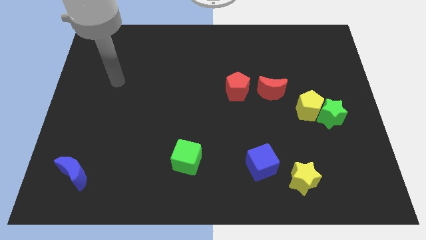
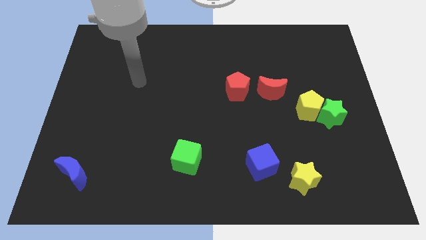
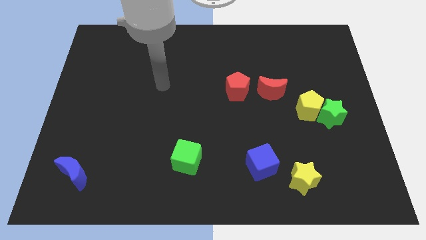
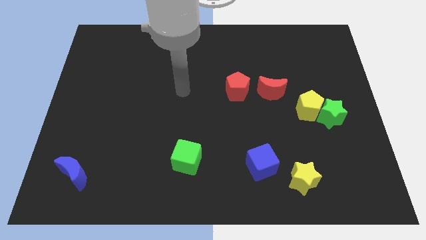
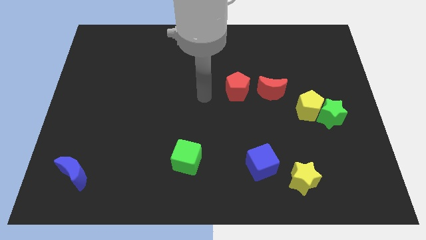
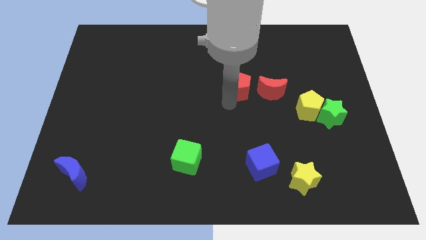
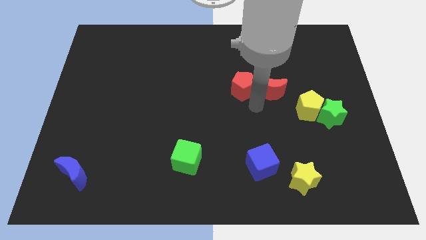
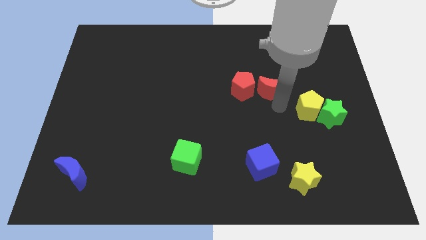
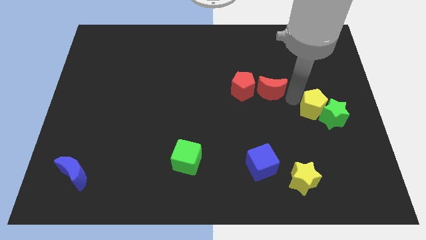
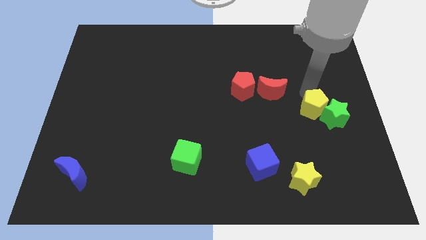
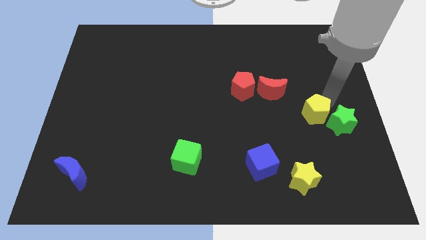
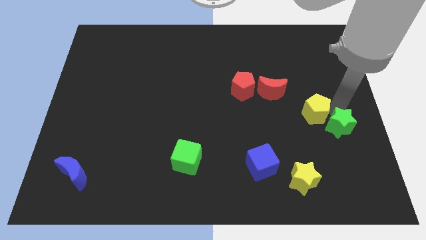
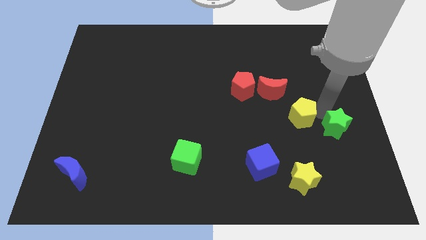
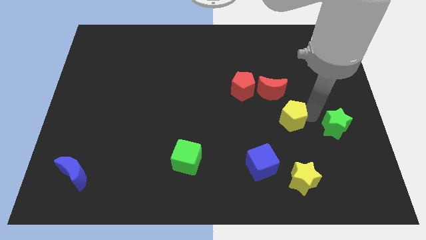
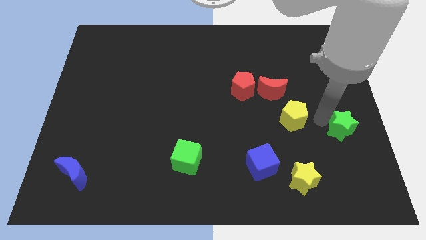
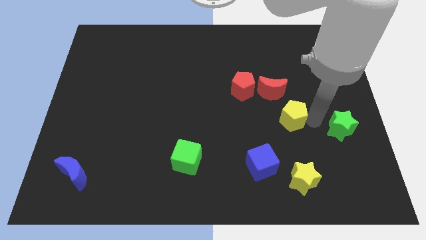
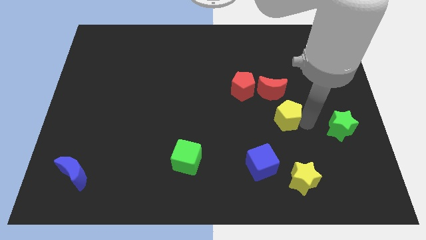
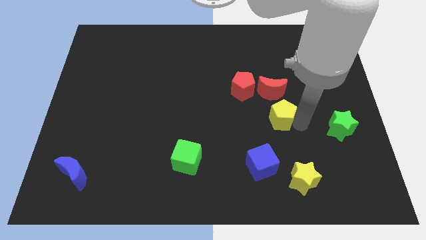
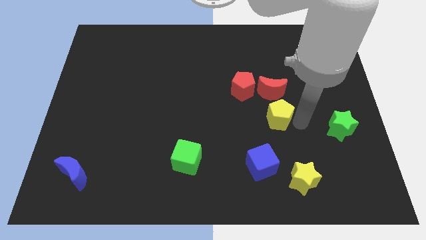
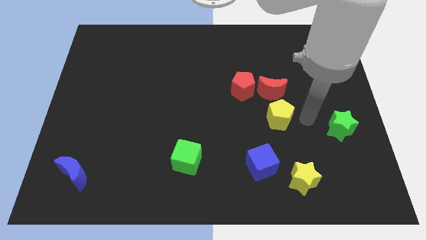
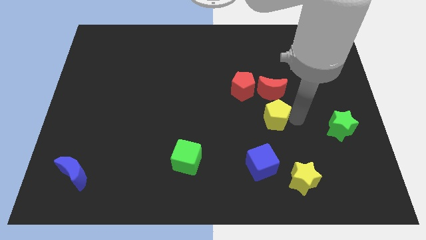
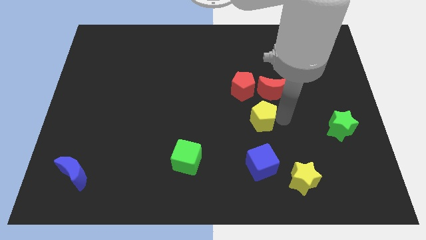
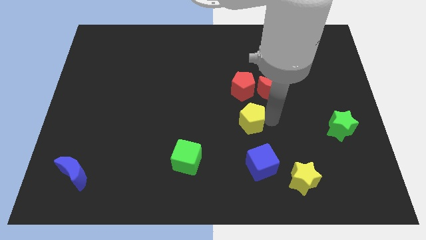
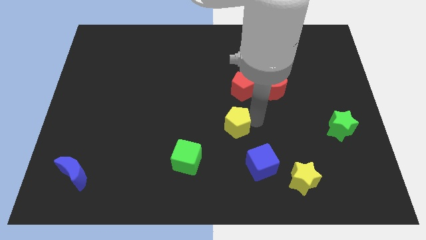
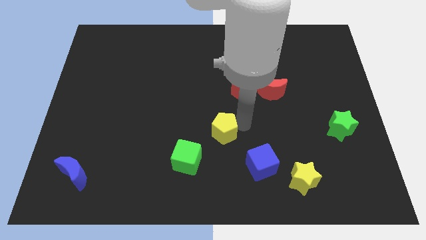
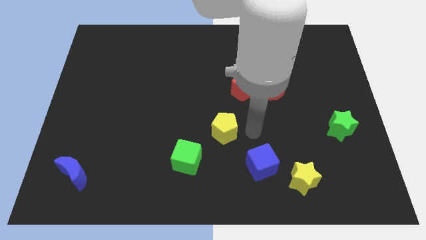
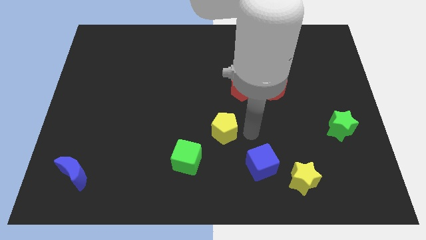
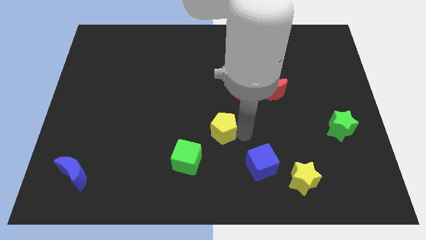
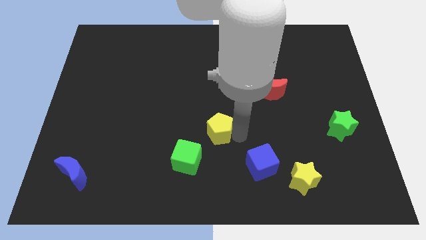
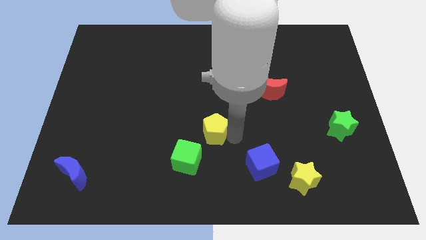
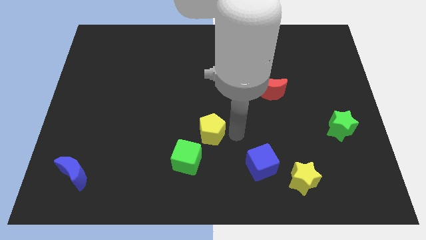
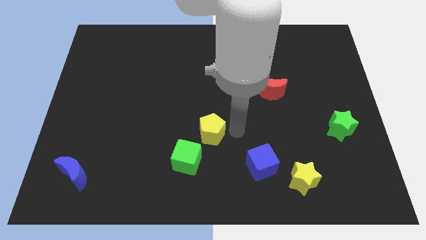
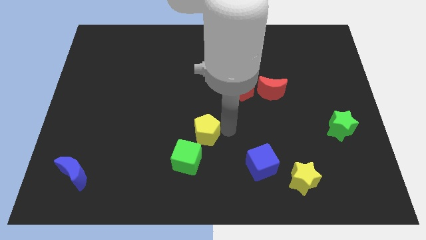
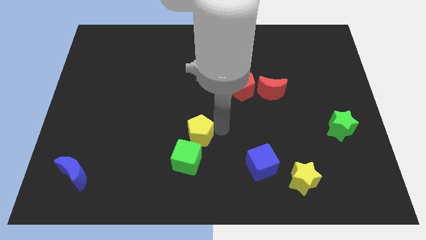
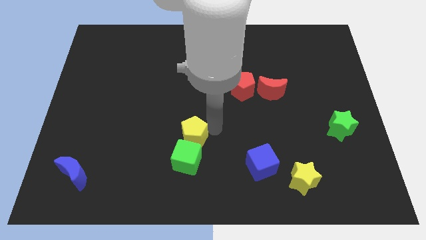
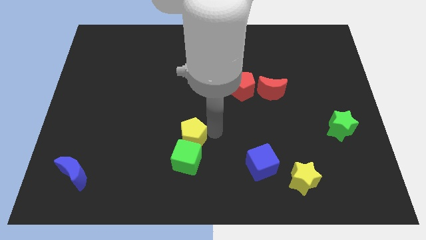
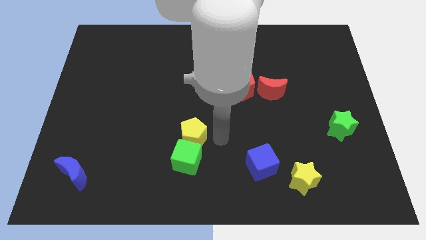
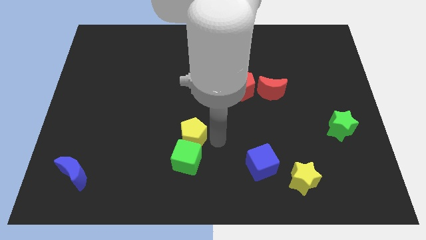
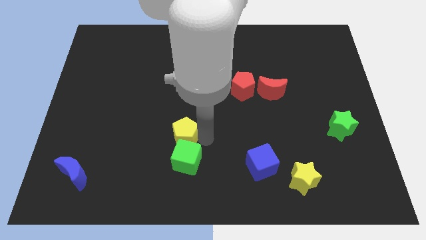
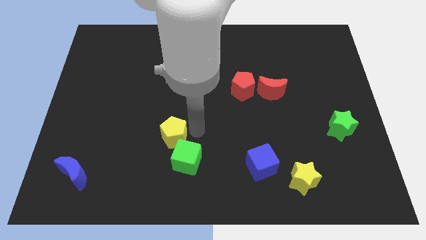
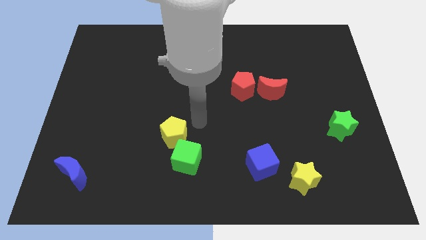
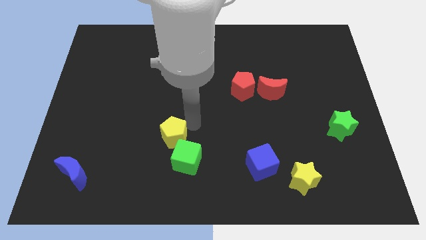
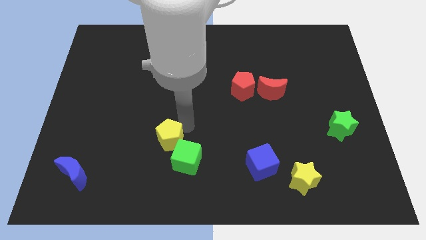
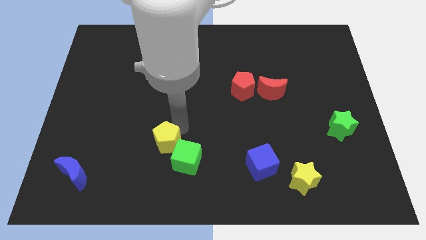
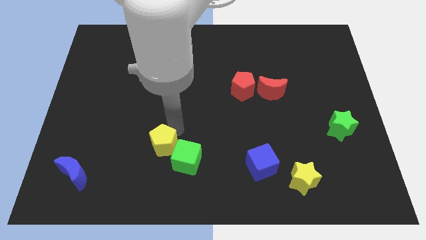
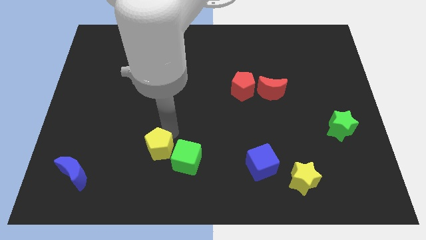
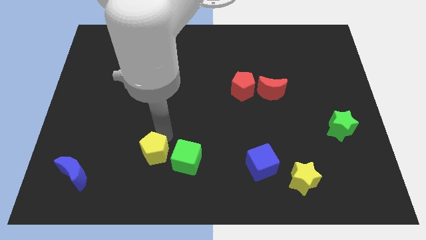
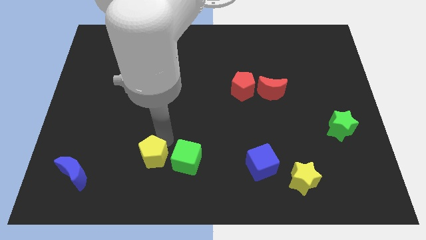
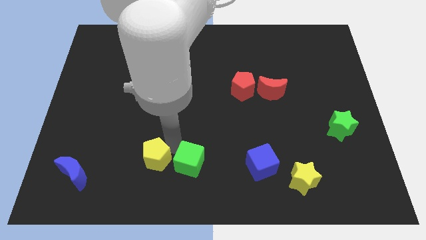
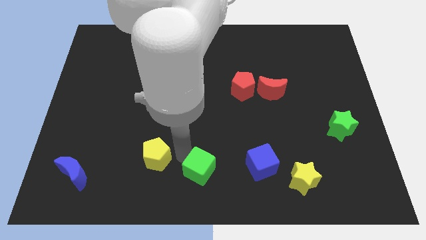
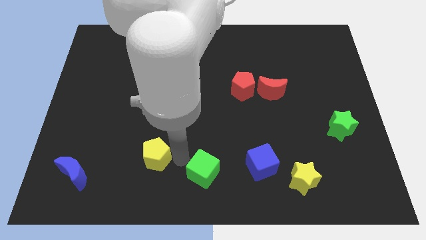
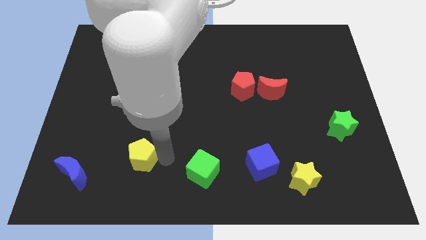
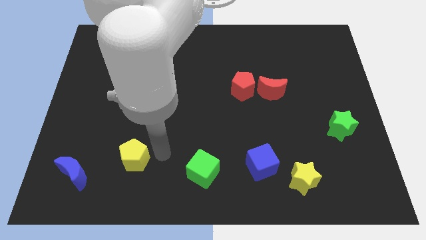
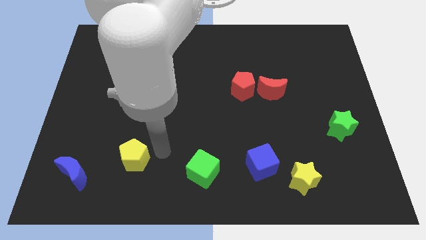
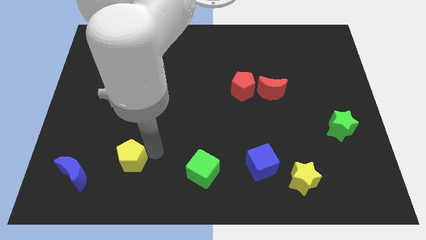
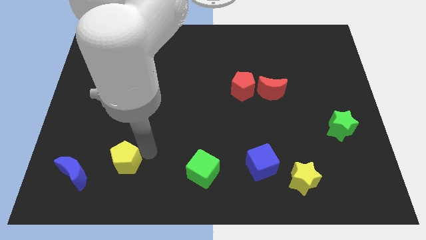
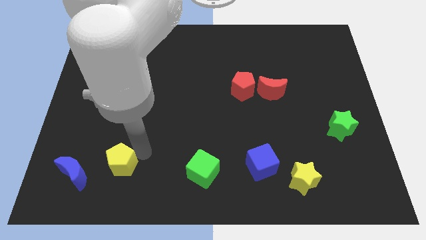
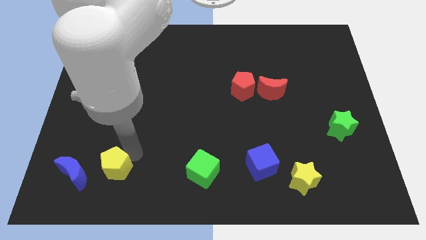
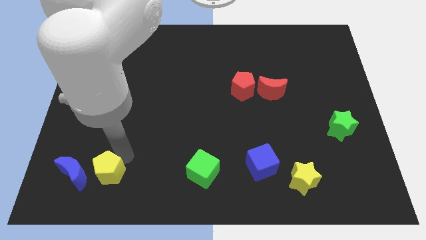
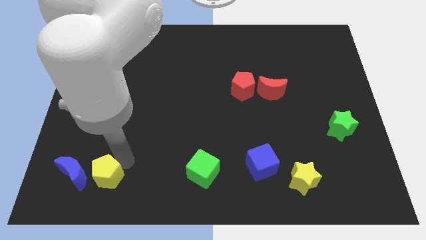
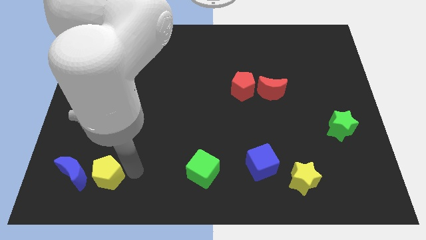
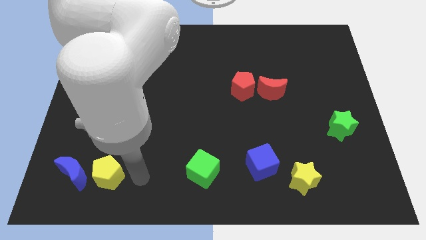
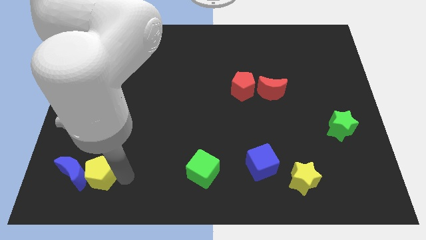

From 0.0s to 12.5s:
push the yellow pentagon to the blue moon
